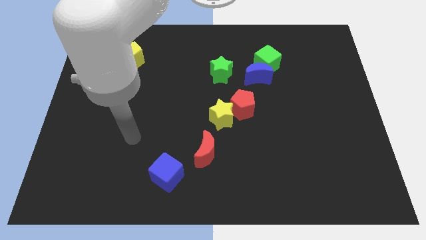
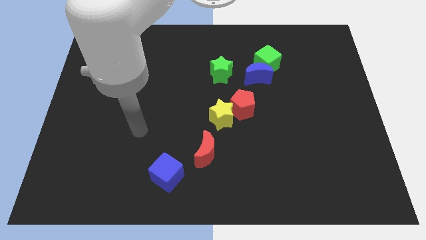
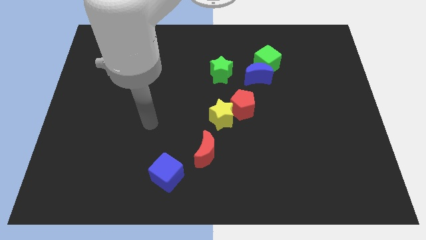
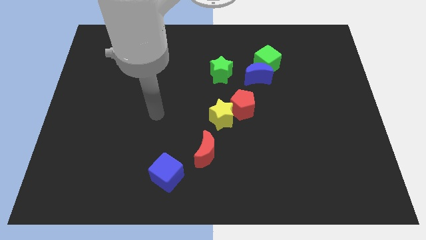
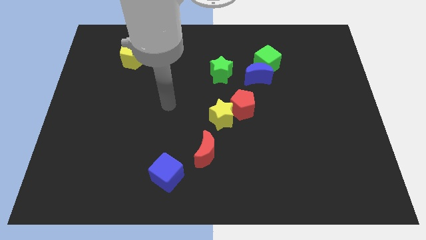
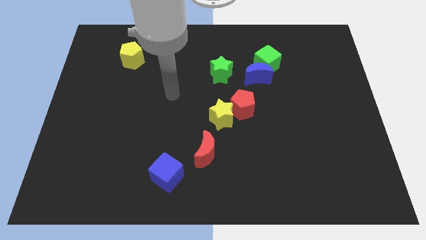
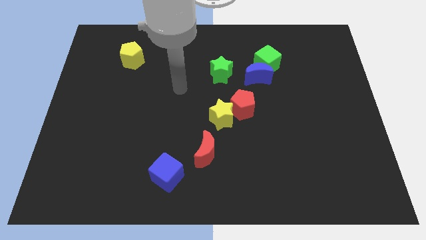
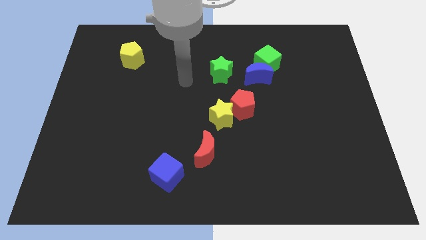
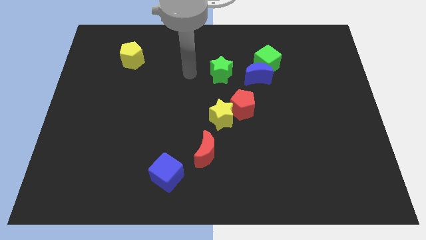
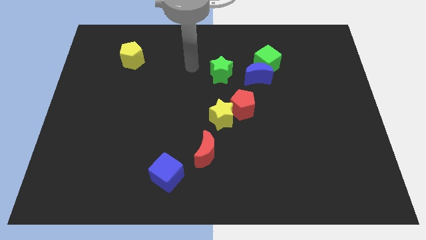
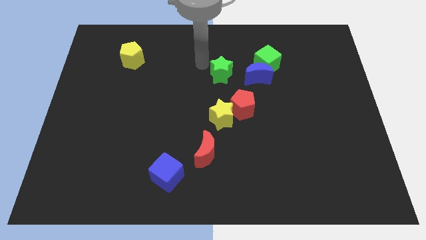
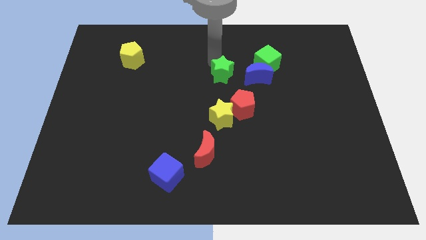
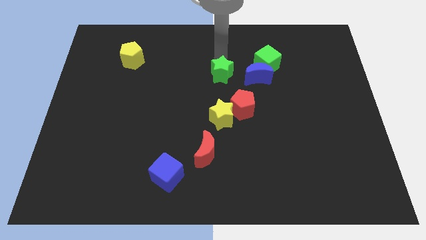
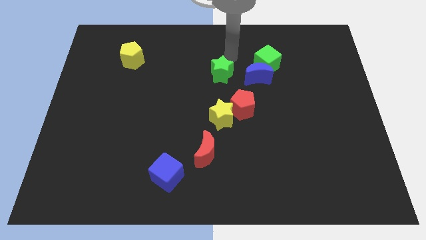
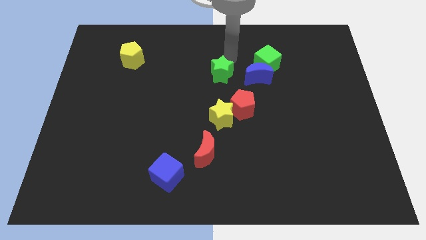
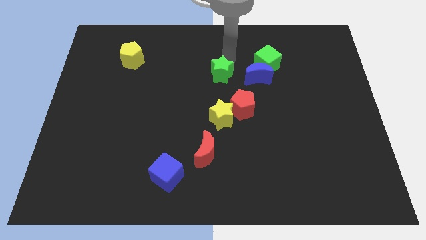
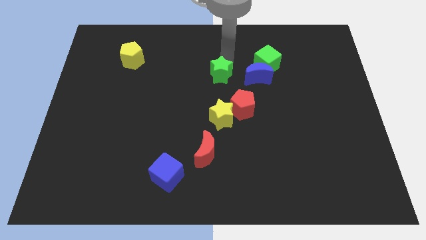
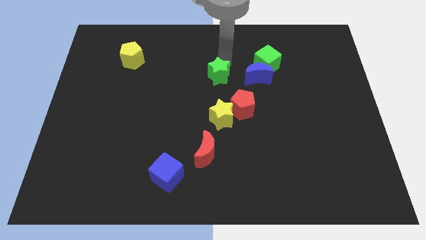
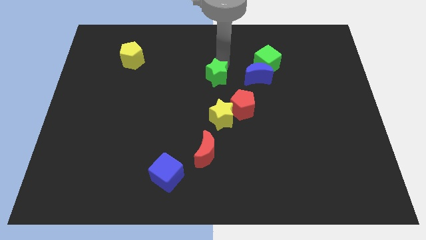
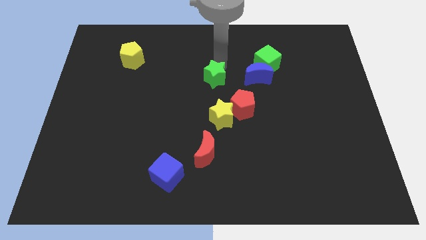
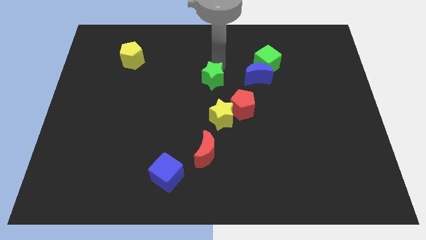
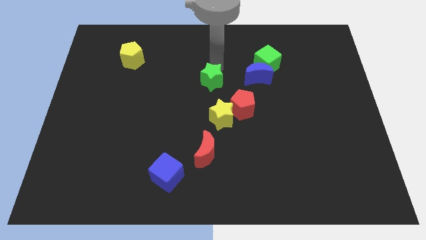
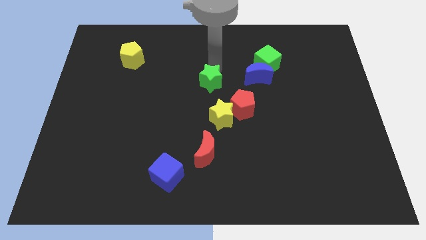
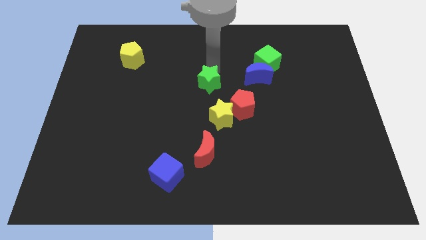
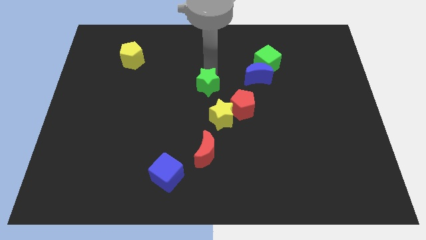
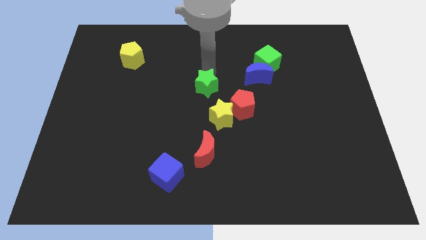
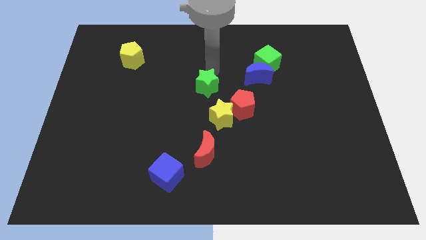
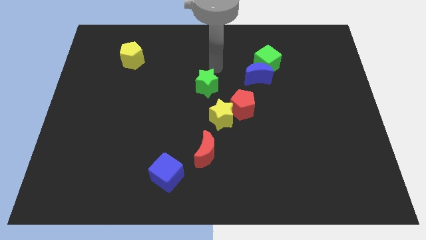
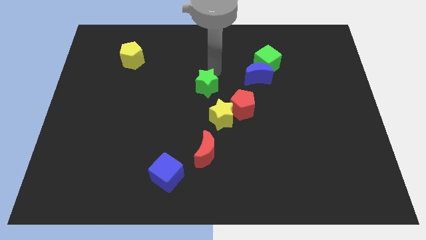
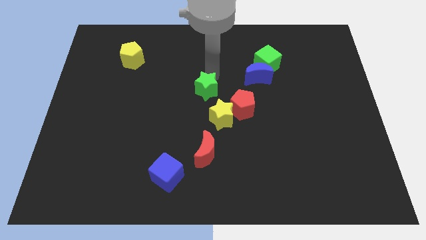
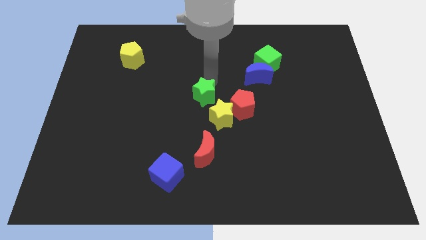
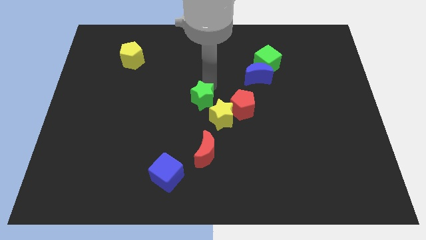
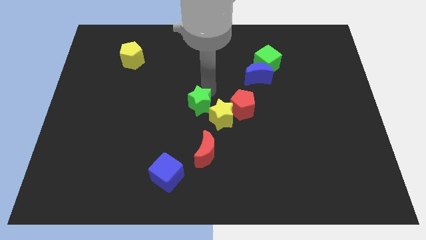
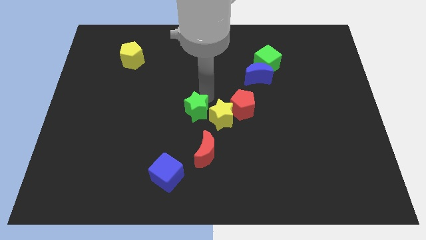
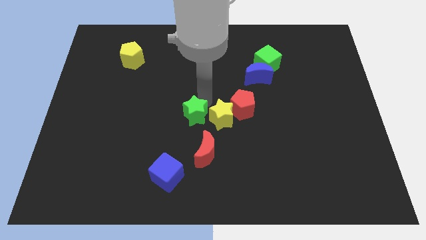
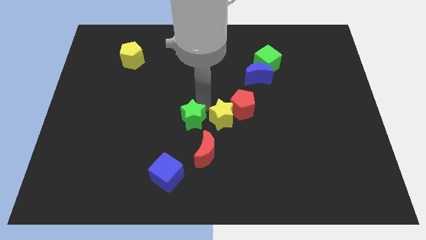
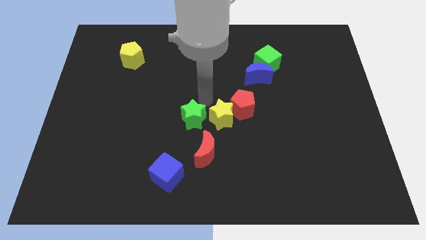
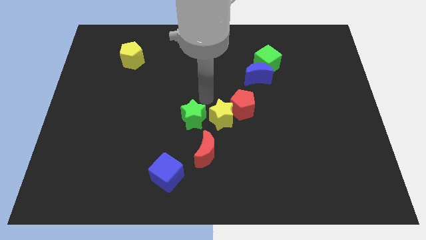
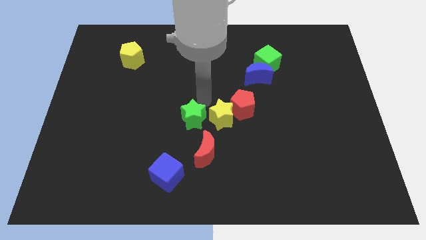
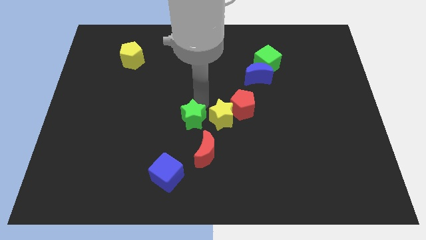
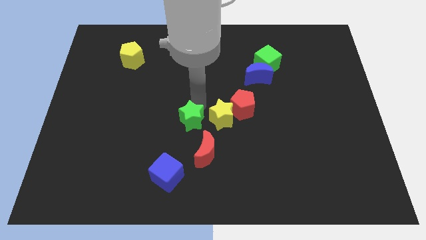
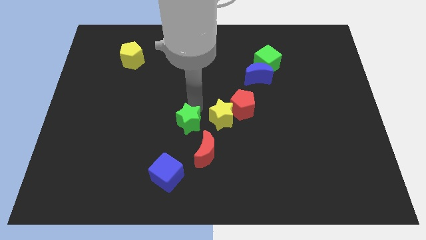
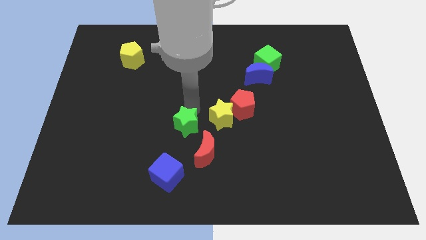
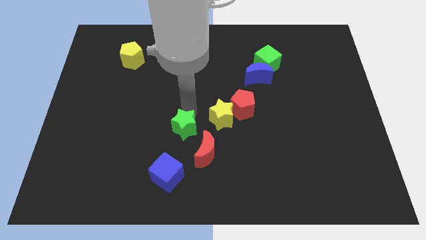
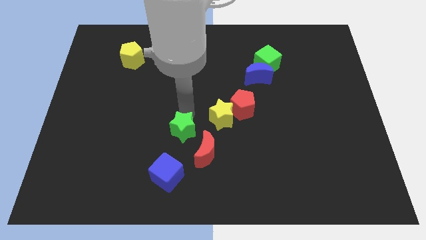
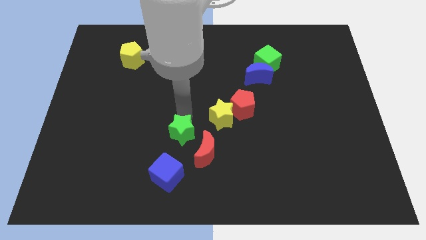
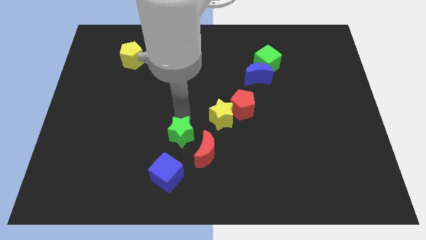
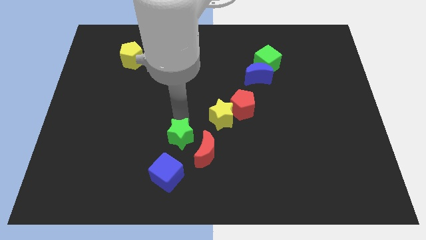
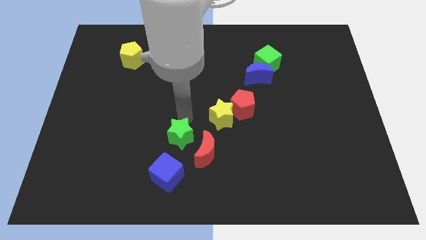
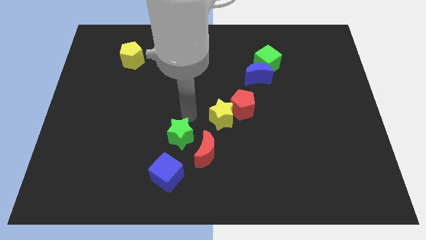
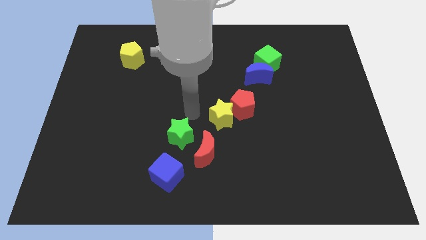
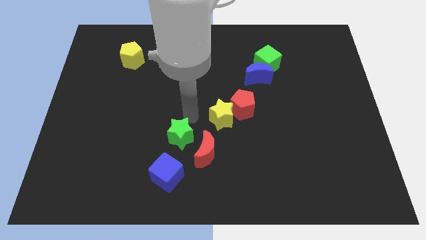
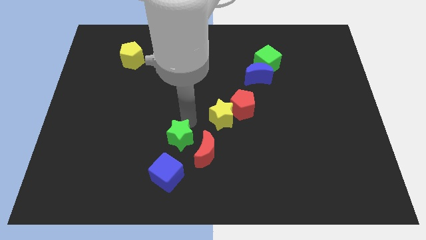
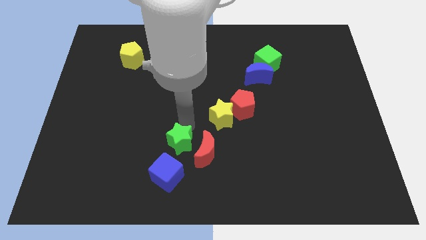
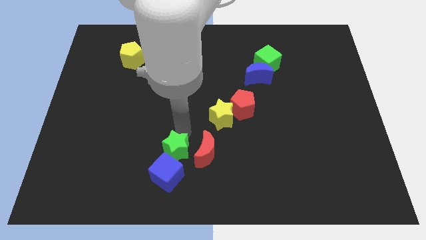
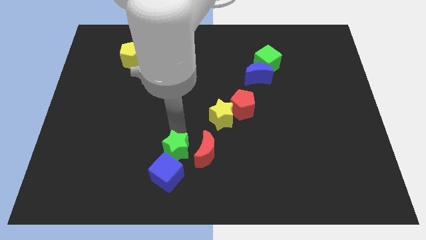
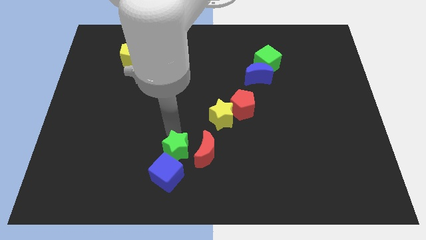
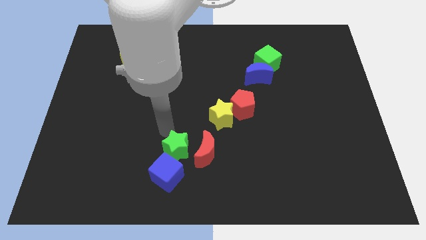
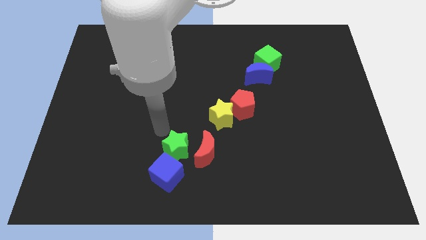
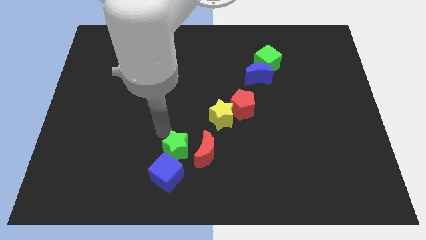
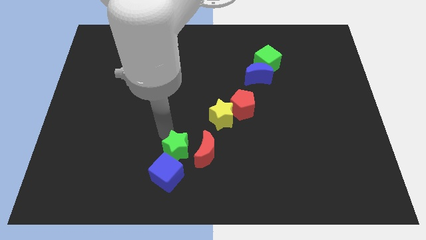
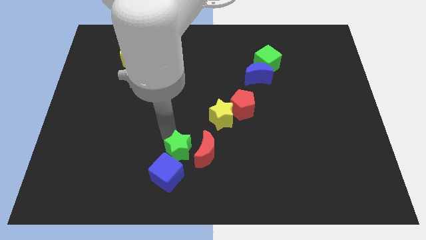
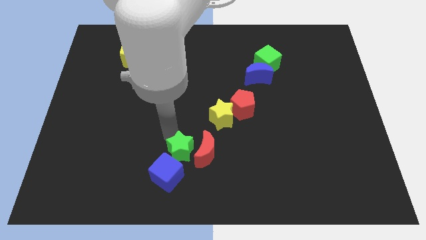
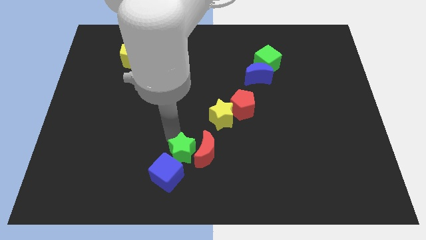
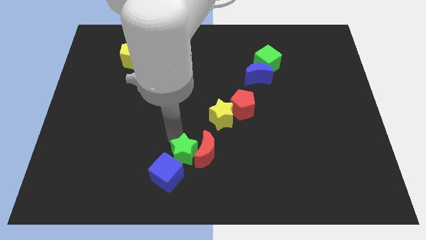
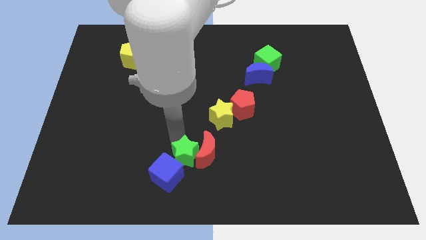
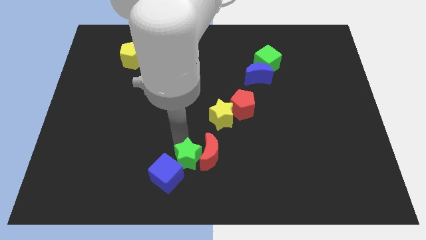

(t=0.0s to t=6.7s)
slide the green star to the bottom

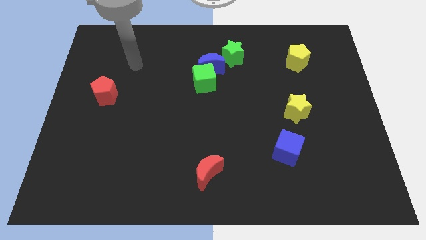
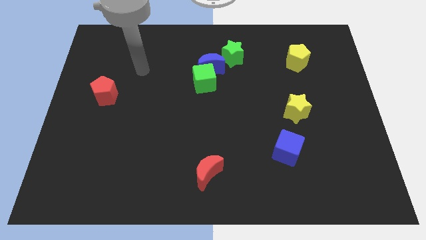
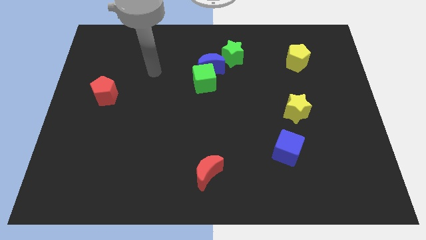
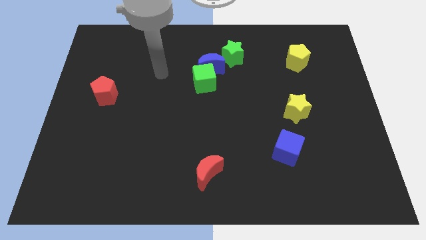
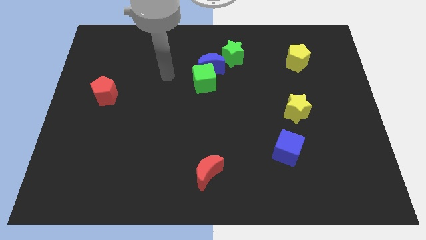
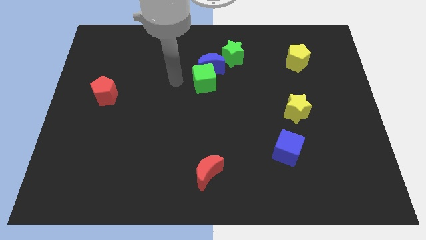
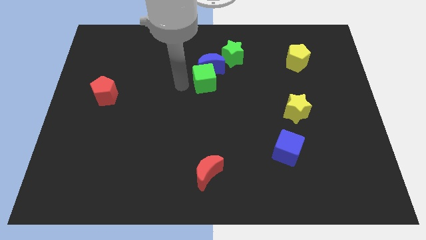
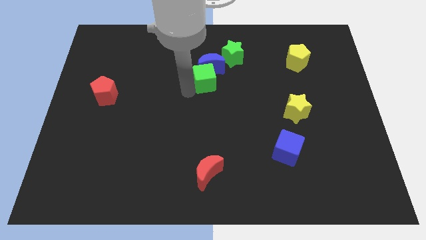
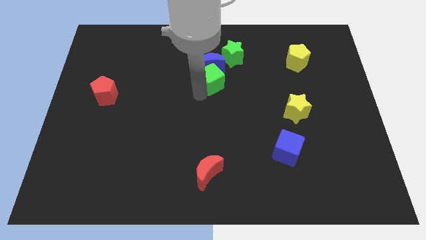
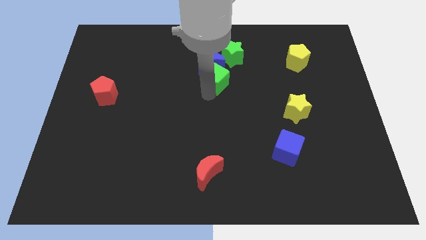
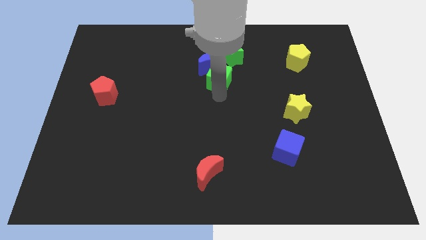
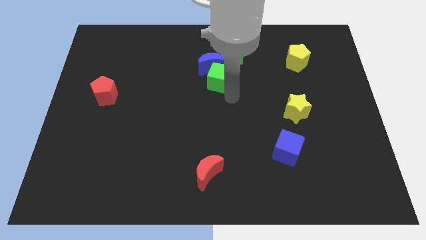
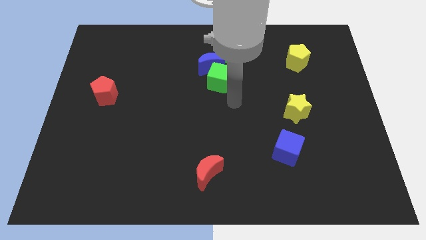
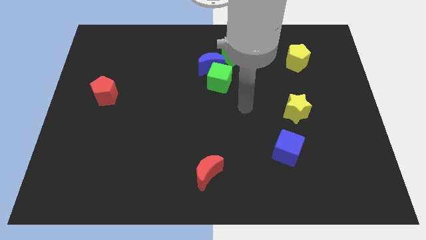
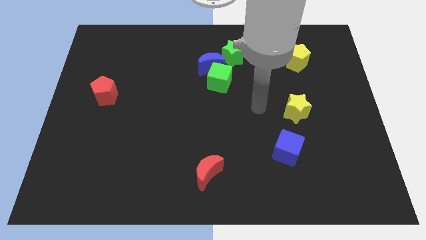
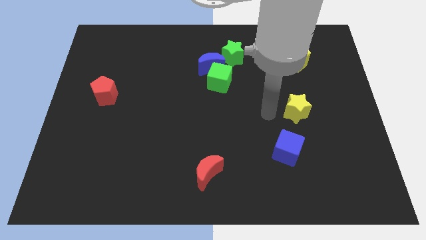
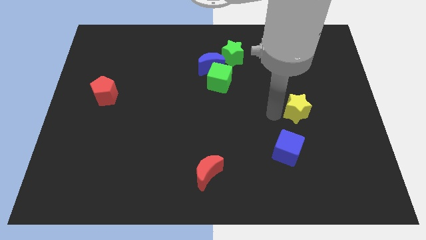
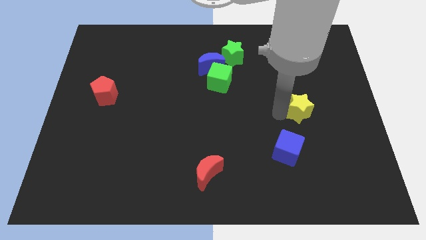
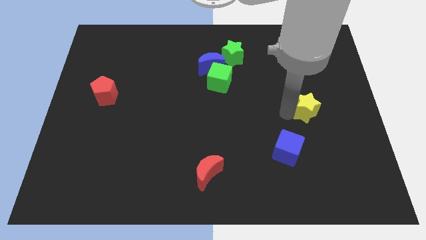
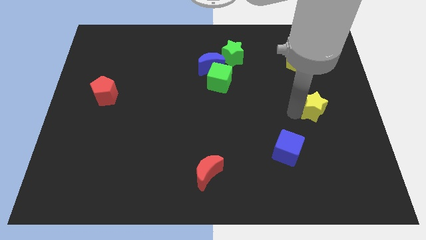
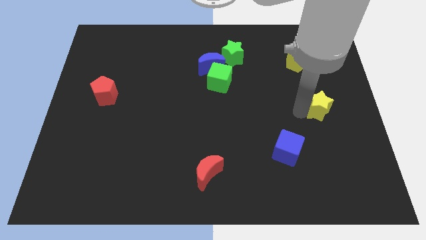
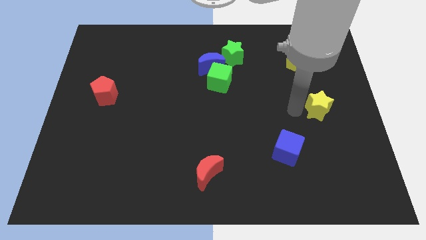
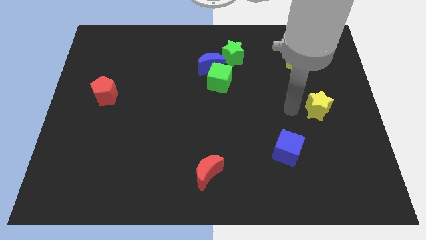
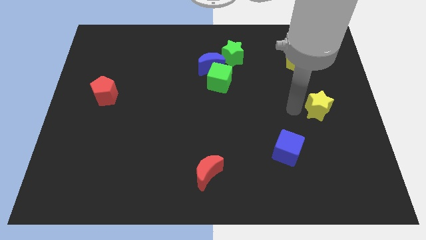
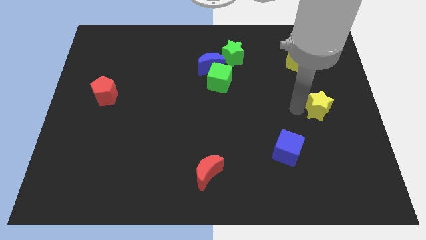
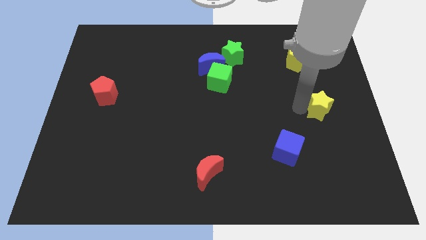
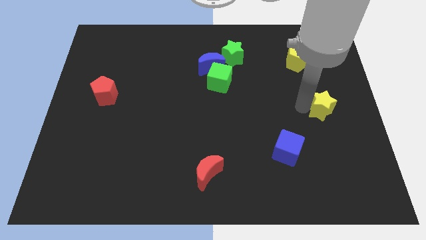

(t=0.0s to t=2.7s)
slide the yellow star to the right side of the board
